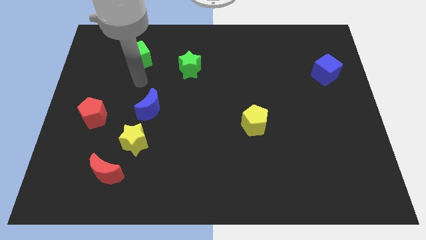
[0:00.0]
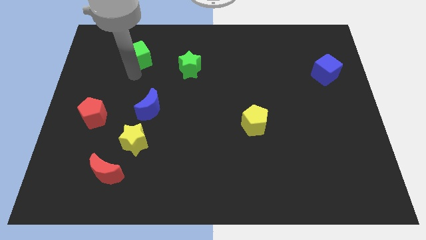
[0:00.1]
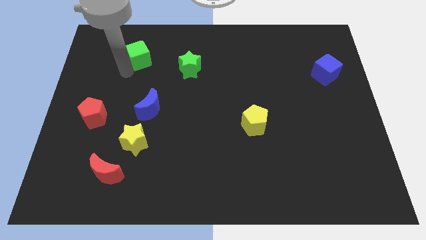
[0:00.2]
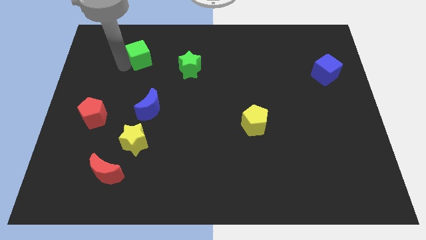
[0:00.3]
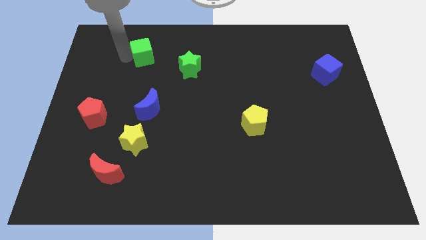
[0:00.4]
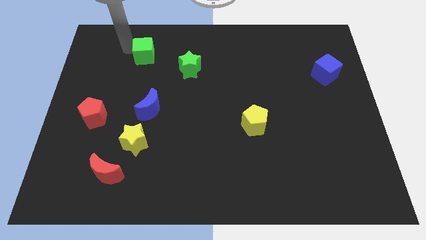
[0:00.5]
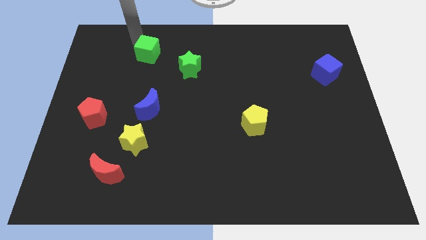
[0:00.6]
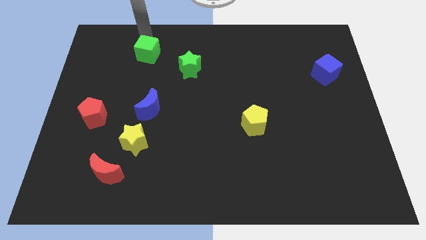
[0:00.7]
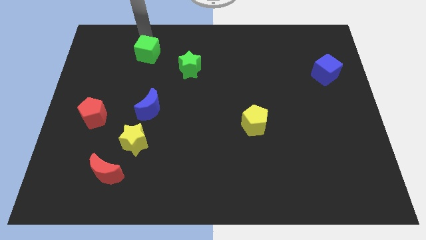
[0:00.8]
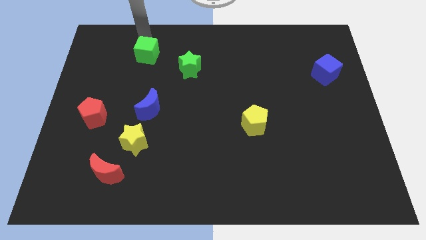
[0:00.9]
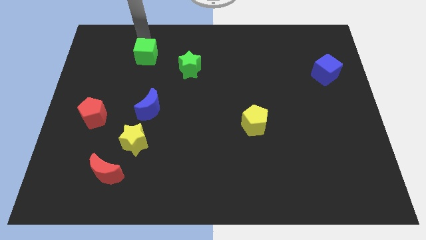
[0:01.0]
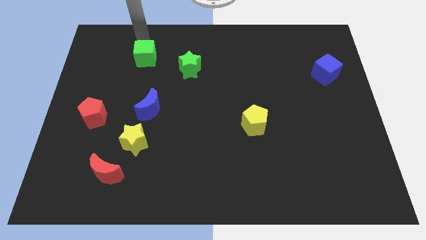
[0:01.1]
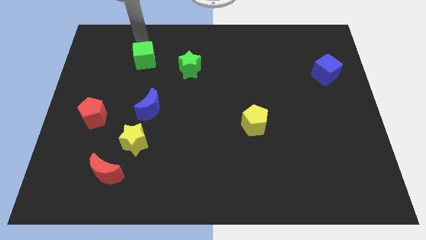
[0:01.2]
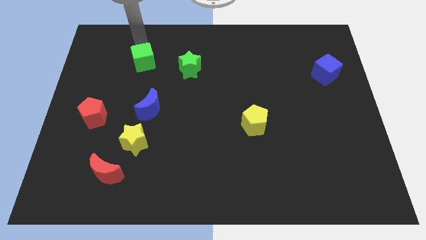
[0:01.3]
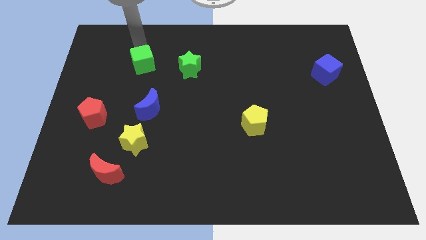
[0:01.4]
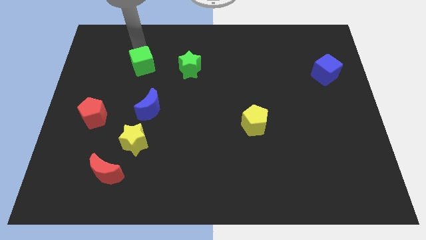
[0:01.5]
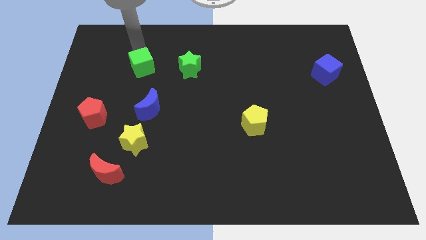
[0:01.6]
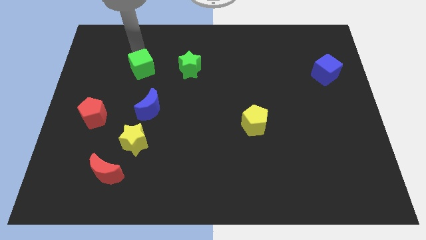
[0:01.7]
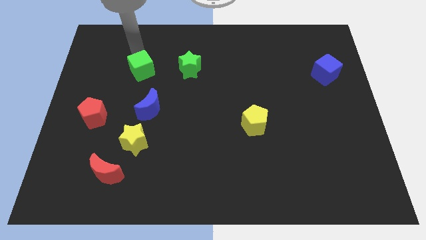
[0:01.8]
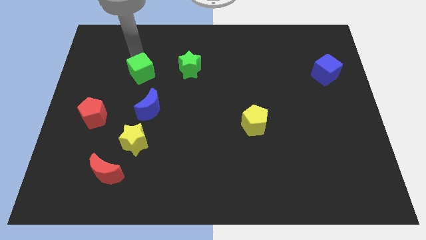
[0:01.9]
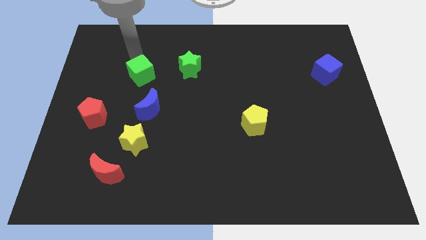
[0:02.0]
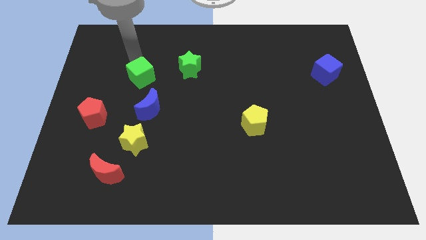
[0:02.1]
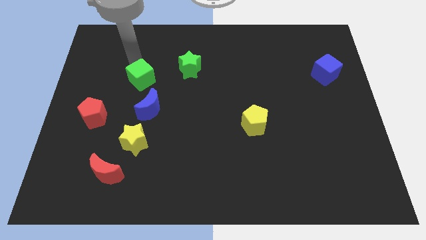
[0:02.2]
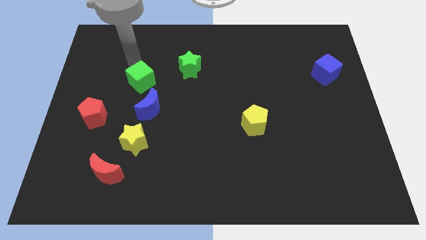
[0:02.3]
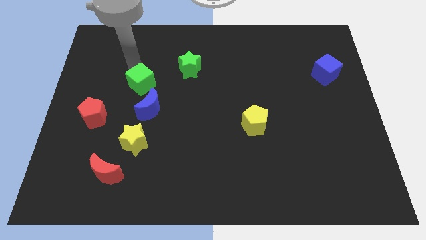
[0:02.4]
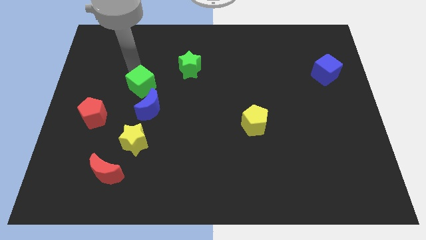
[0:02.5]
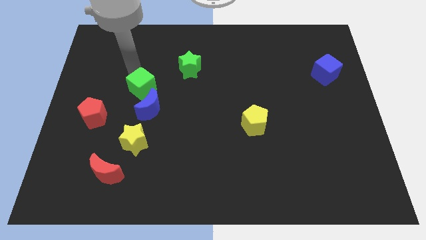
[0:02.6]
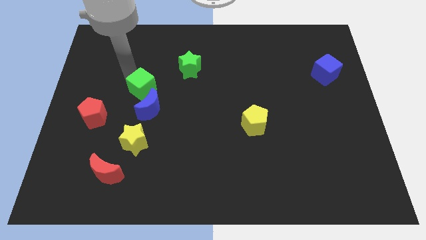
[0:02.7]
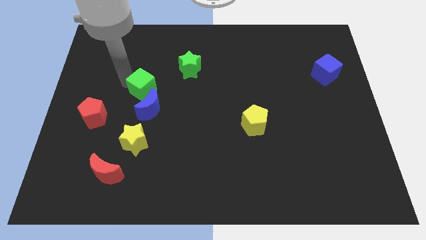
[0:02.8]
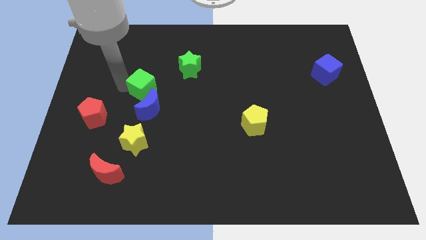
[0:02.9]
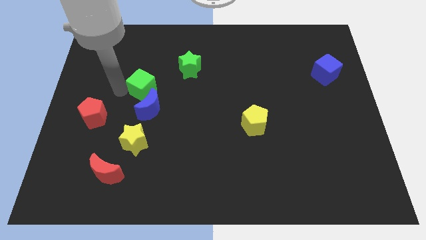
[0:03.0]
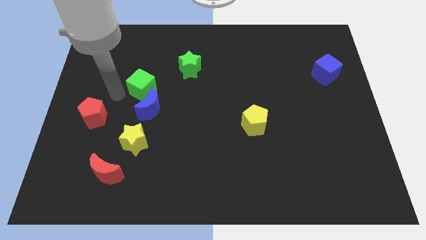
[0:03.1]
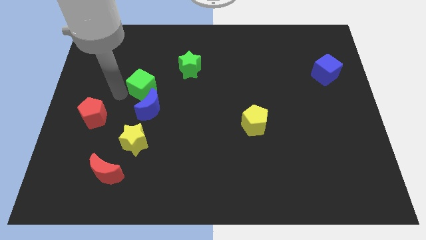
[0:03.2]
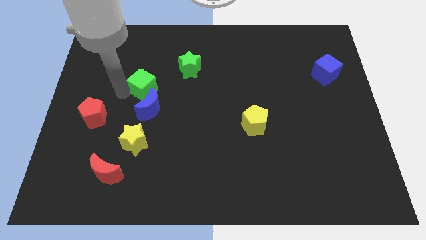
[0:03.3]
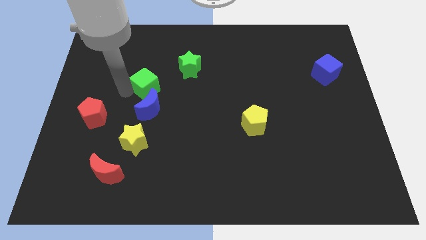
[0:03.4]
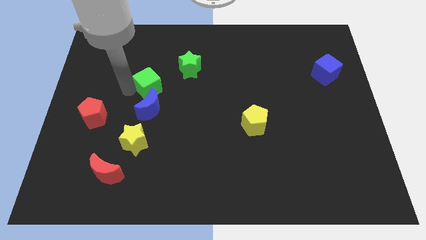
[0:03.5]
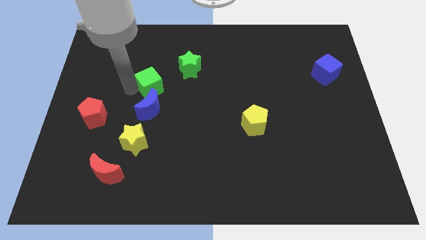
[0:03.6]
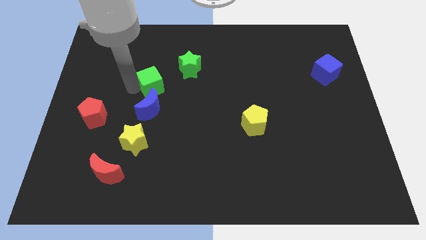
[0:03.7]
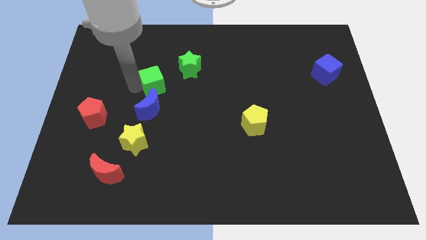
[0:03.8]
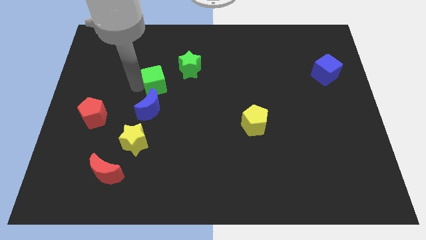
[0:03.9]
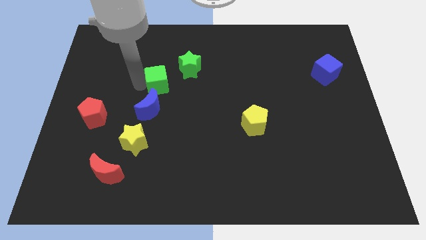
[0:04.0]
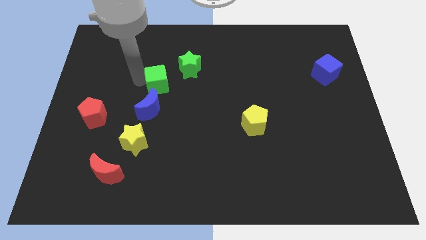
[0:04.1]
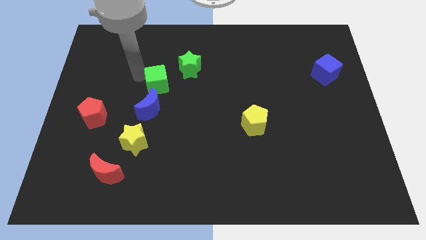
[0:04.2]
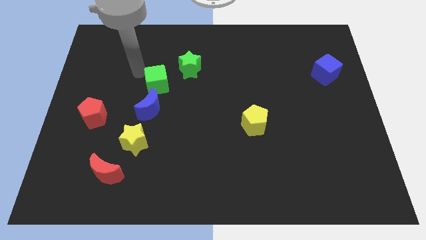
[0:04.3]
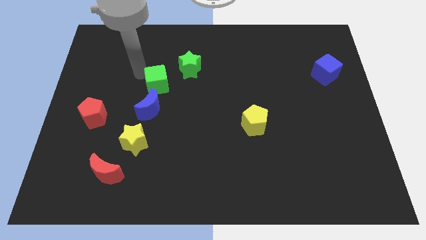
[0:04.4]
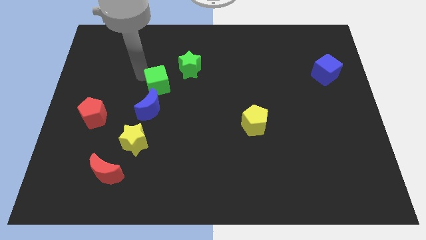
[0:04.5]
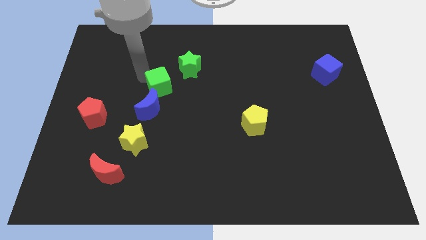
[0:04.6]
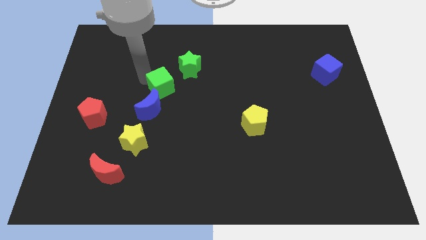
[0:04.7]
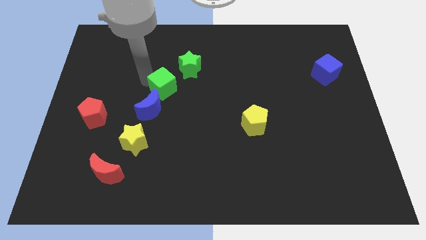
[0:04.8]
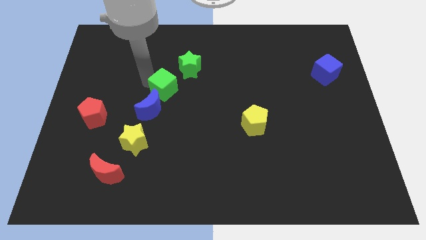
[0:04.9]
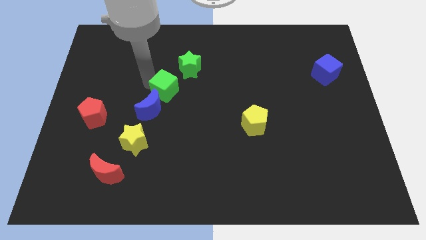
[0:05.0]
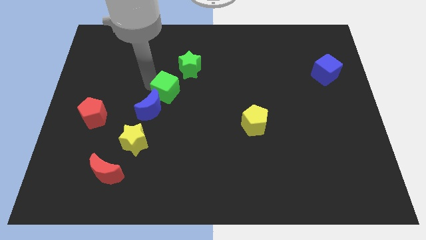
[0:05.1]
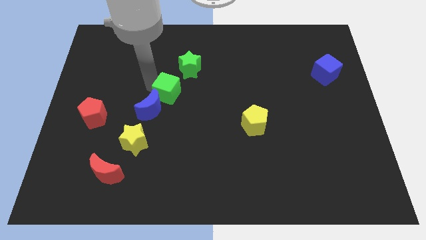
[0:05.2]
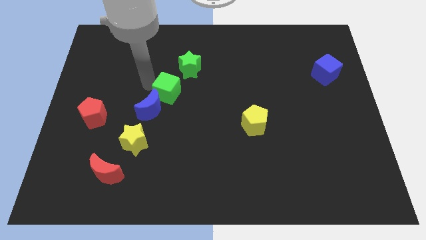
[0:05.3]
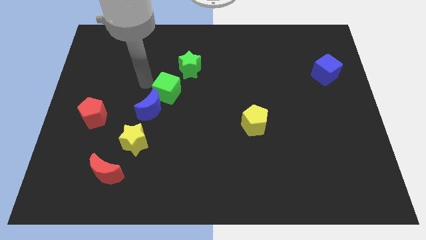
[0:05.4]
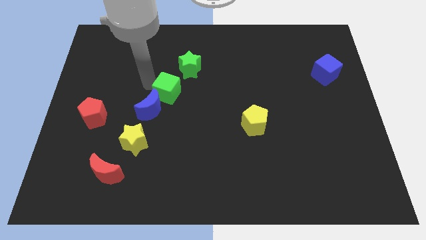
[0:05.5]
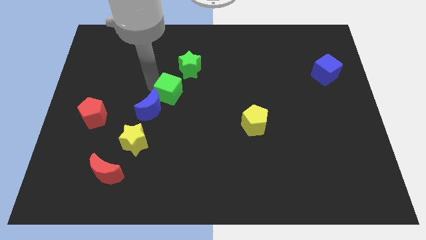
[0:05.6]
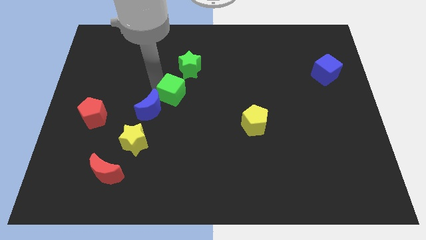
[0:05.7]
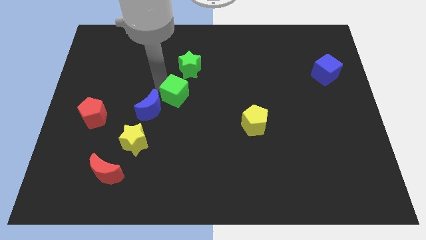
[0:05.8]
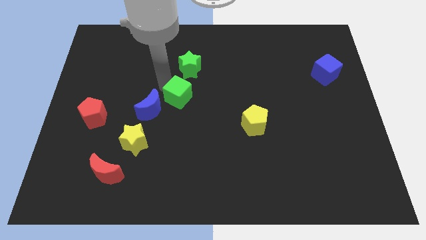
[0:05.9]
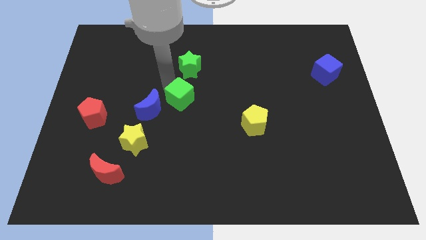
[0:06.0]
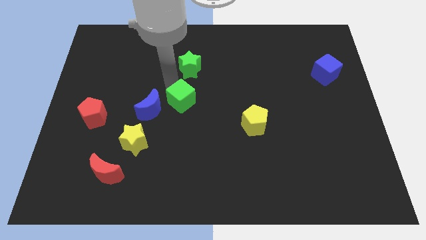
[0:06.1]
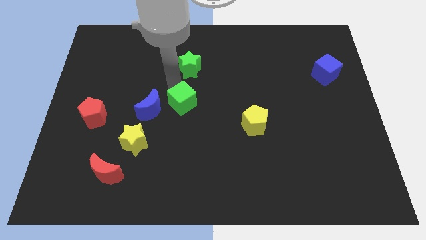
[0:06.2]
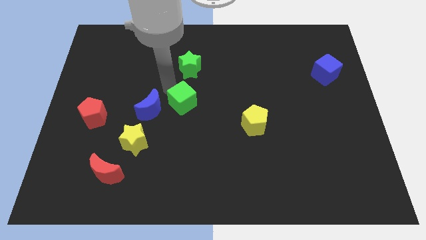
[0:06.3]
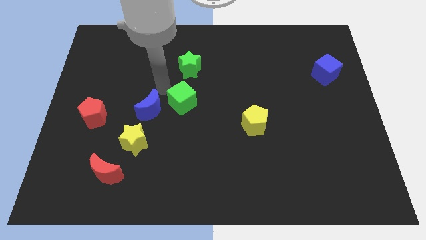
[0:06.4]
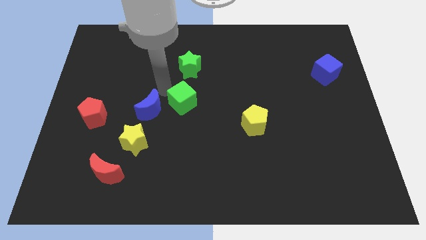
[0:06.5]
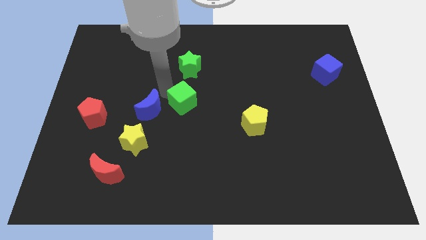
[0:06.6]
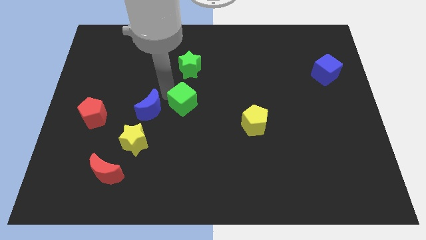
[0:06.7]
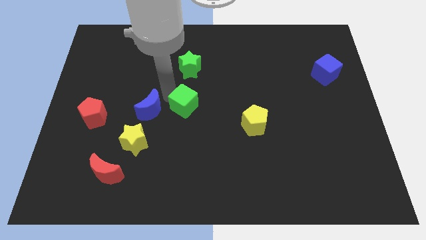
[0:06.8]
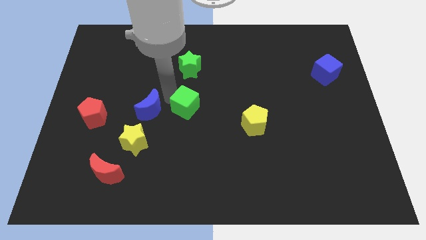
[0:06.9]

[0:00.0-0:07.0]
move the green cube down and to the right diagonally

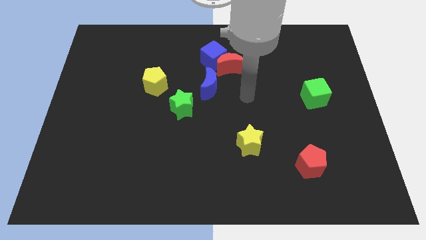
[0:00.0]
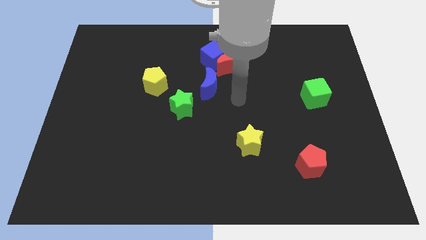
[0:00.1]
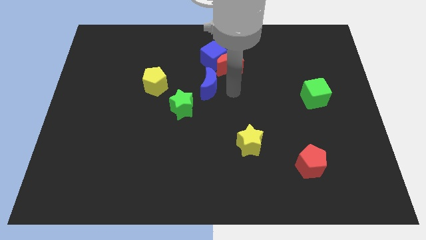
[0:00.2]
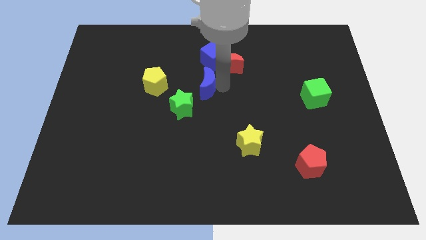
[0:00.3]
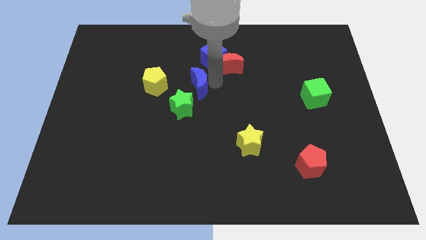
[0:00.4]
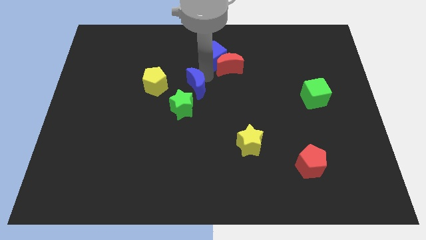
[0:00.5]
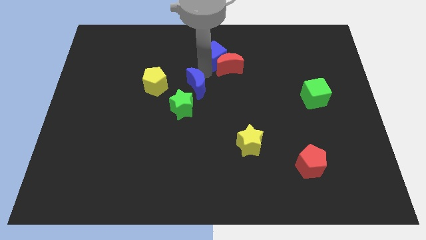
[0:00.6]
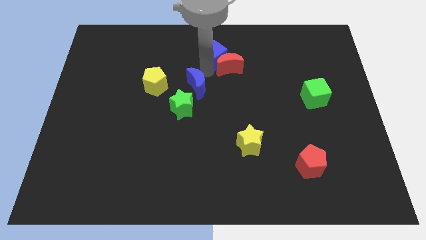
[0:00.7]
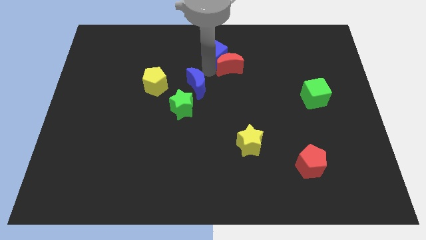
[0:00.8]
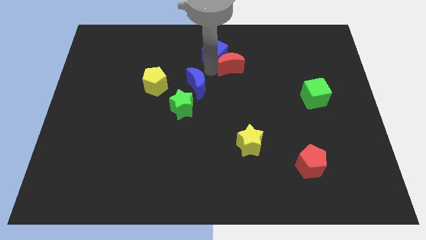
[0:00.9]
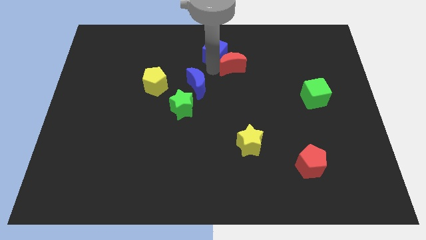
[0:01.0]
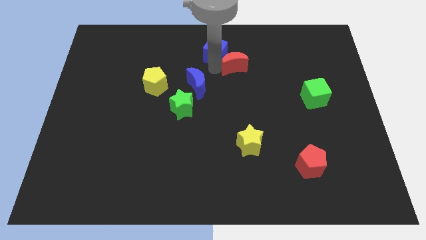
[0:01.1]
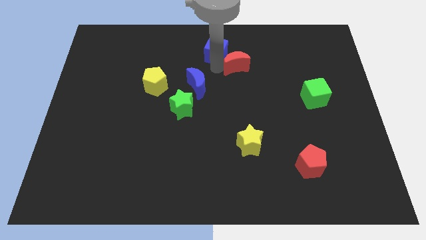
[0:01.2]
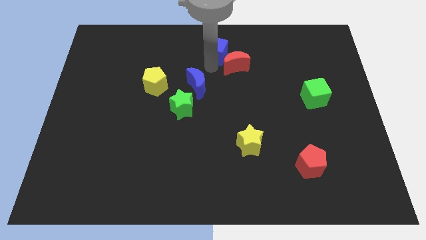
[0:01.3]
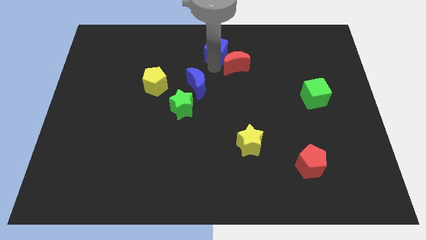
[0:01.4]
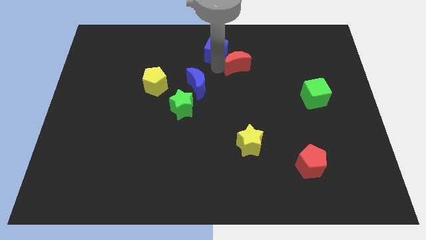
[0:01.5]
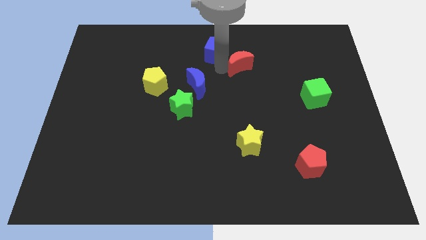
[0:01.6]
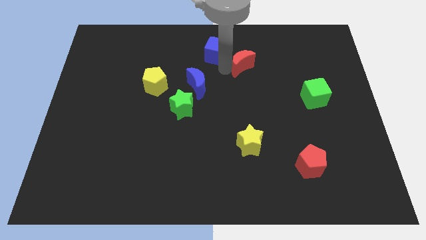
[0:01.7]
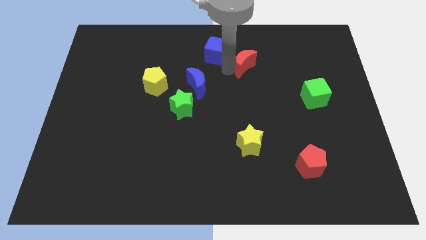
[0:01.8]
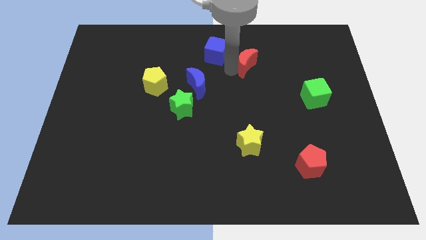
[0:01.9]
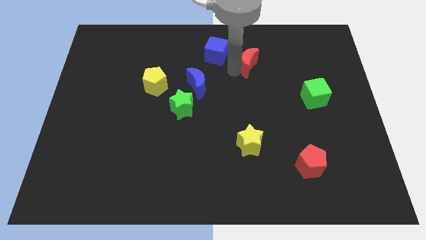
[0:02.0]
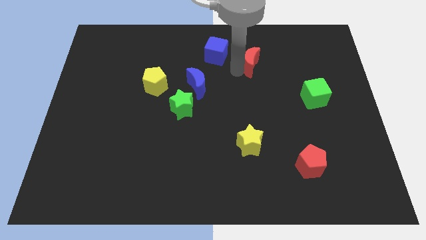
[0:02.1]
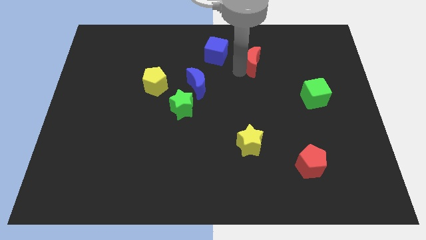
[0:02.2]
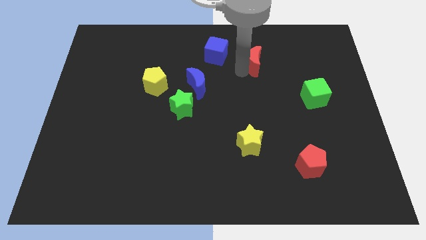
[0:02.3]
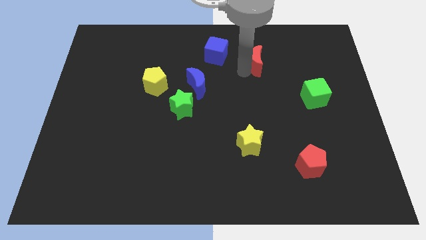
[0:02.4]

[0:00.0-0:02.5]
slightly slide the red moon to the right
